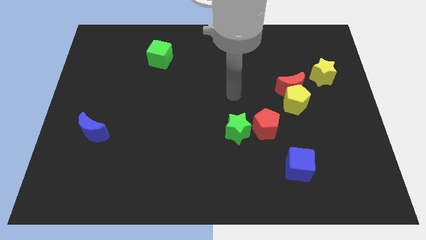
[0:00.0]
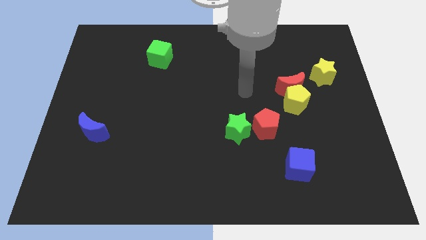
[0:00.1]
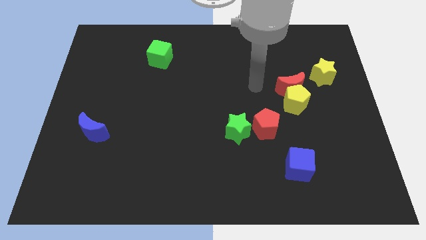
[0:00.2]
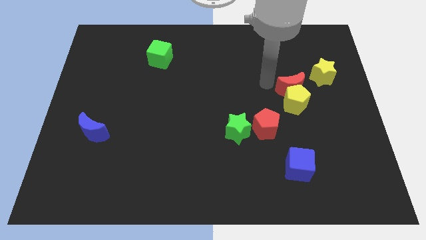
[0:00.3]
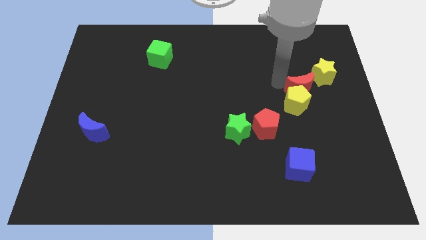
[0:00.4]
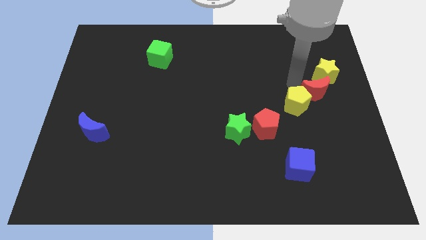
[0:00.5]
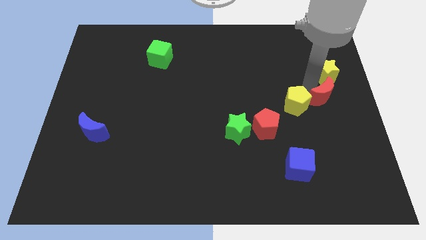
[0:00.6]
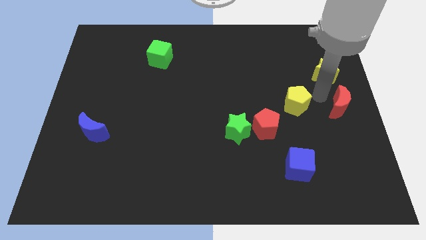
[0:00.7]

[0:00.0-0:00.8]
separate the yellow pentagon from the red moon

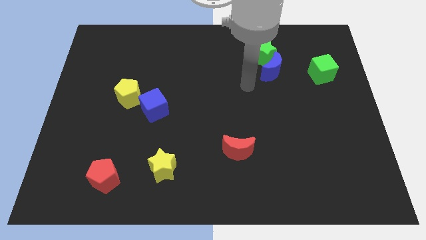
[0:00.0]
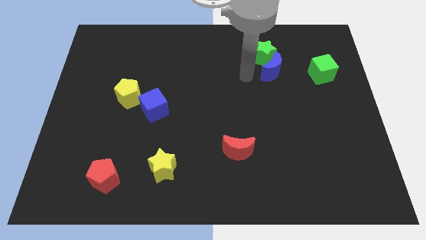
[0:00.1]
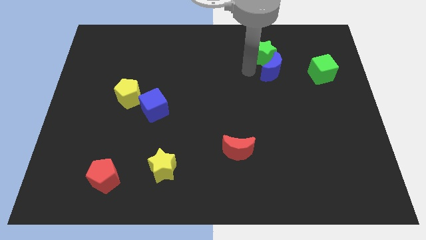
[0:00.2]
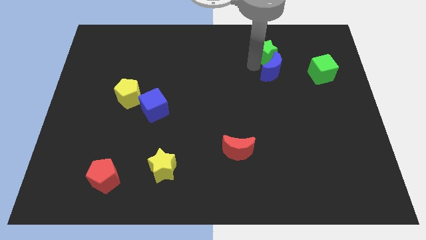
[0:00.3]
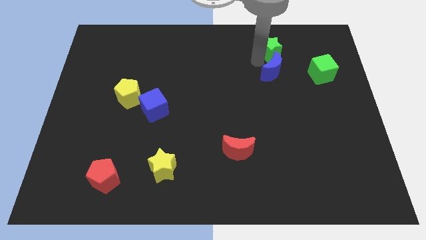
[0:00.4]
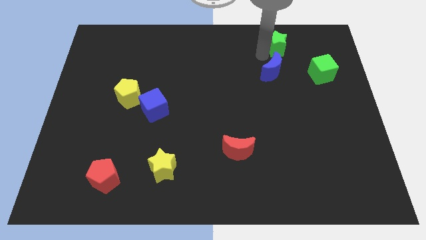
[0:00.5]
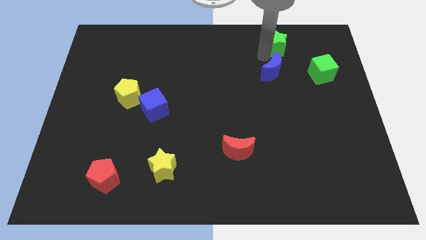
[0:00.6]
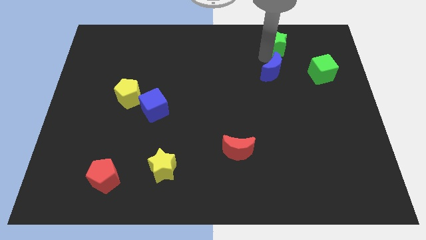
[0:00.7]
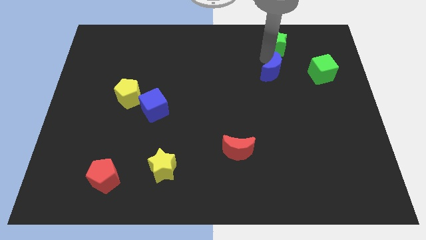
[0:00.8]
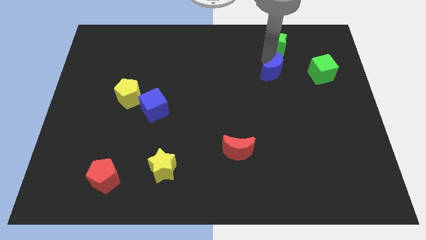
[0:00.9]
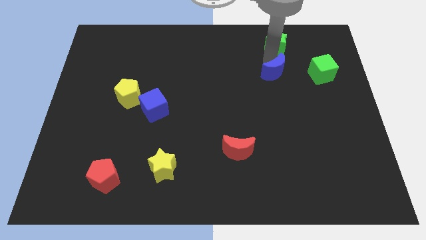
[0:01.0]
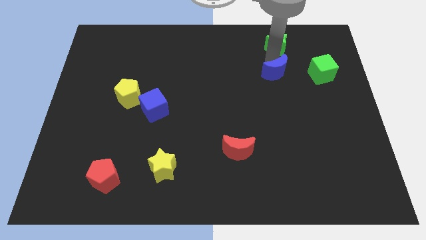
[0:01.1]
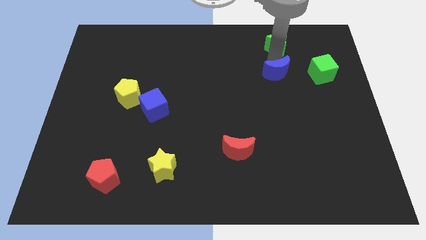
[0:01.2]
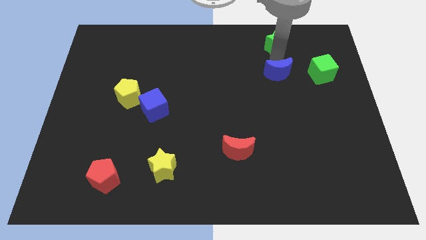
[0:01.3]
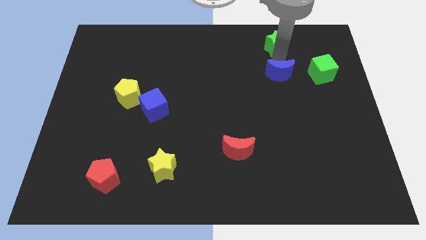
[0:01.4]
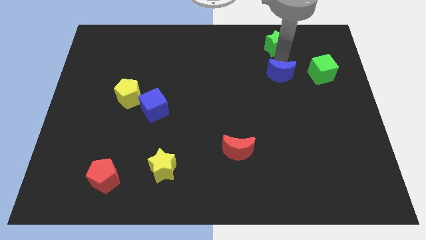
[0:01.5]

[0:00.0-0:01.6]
move the blue moon away from the green star

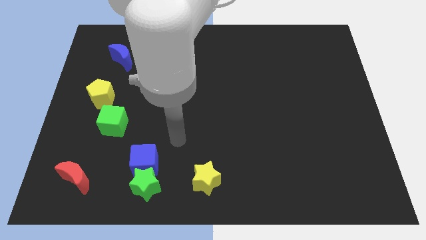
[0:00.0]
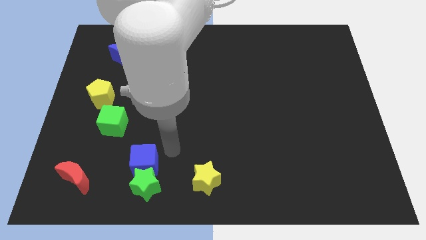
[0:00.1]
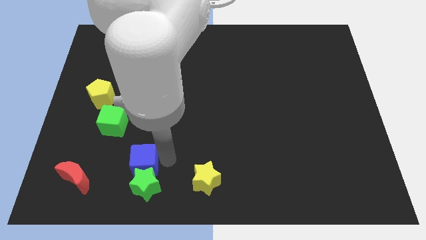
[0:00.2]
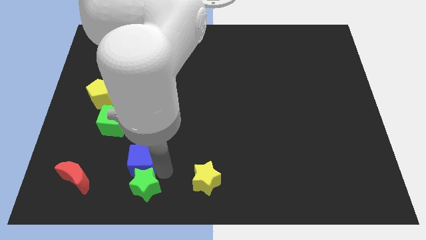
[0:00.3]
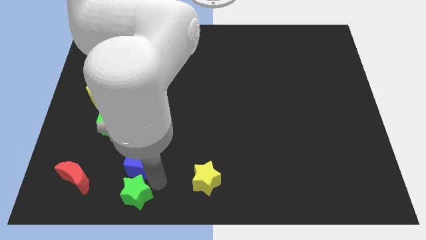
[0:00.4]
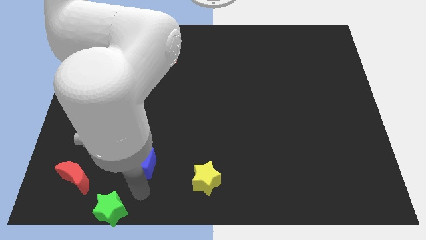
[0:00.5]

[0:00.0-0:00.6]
move the blue cube away from the green star

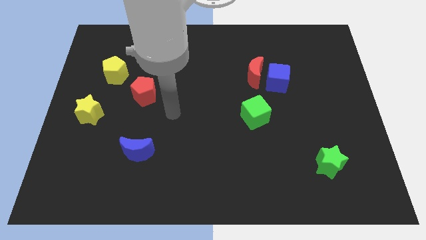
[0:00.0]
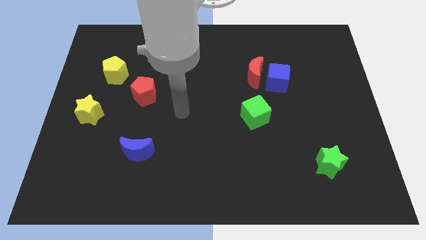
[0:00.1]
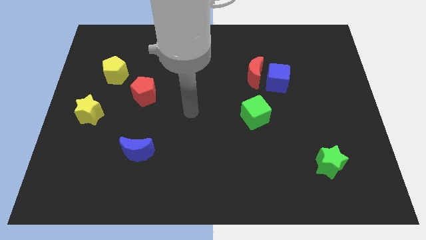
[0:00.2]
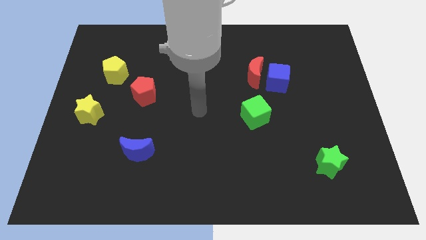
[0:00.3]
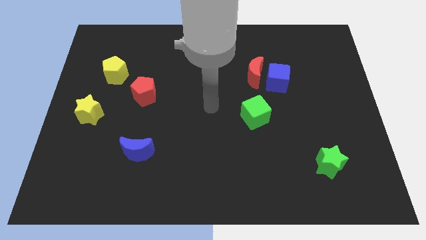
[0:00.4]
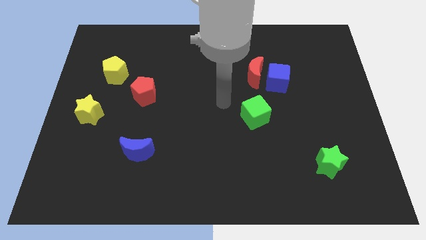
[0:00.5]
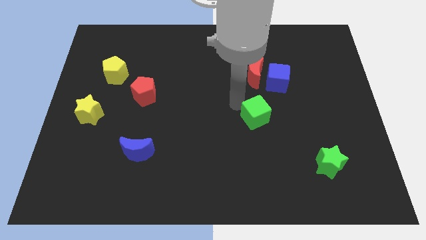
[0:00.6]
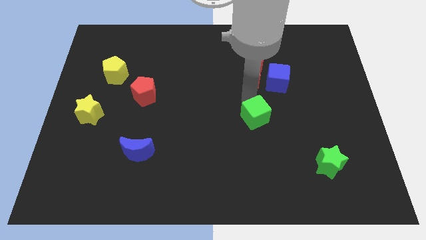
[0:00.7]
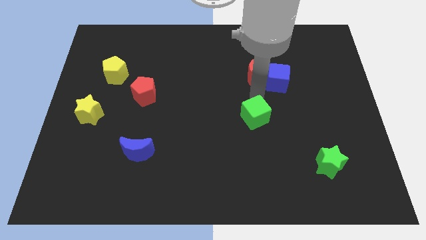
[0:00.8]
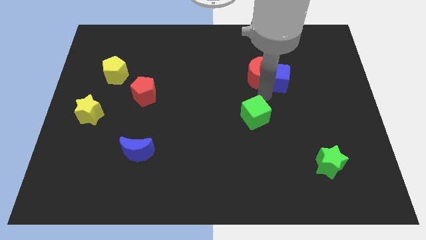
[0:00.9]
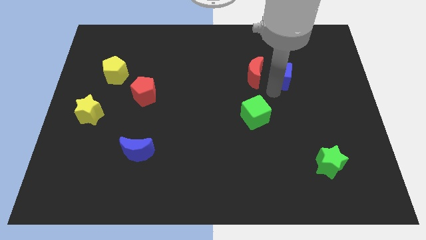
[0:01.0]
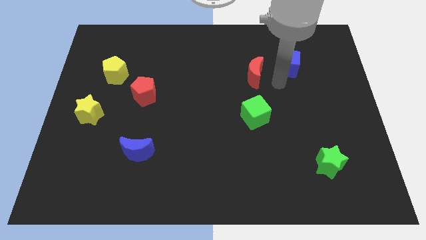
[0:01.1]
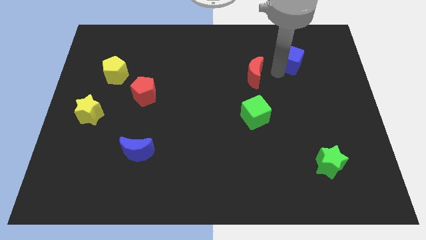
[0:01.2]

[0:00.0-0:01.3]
separate the red moon from the blue cube

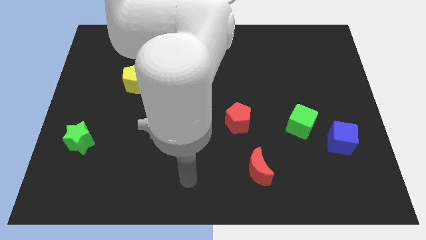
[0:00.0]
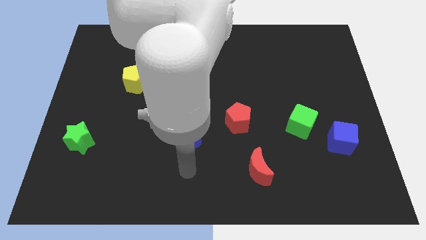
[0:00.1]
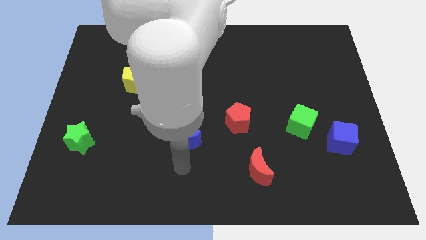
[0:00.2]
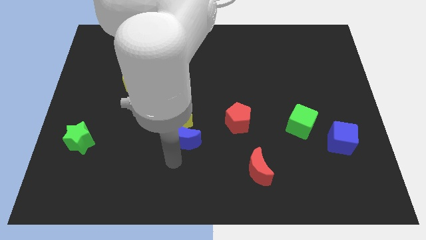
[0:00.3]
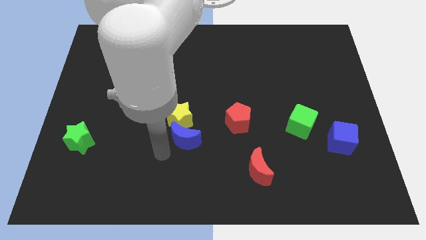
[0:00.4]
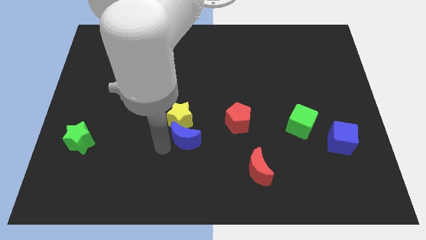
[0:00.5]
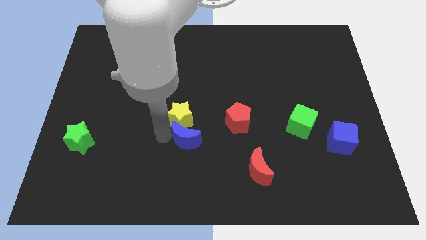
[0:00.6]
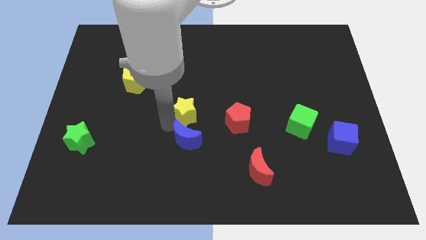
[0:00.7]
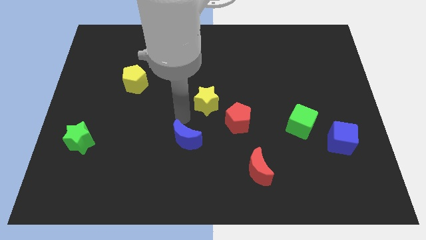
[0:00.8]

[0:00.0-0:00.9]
separate the blue moon from the yellow star

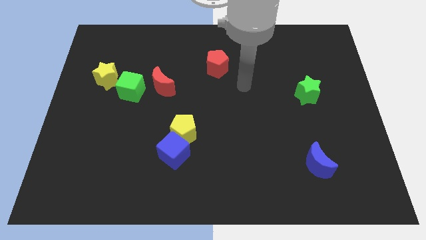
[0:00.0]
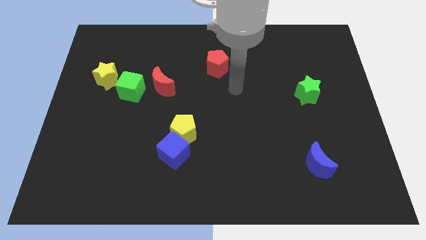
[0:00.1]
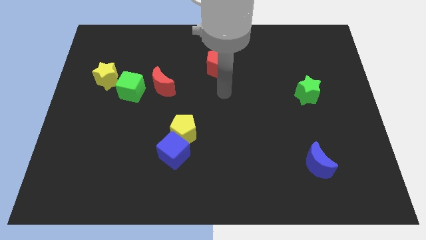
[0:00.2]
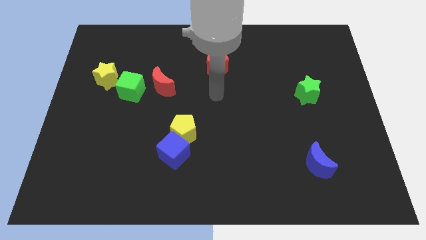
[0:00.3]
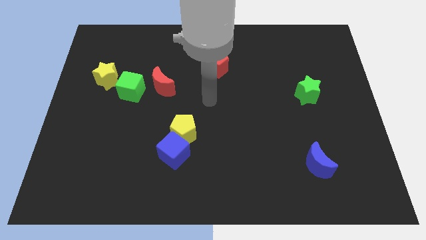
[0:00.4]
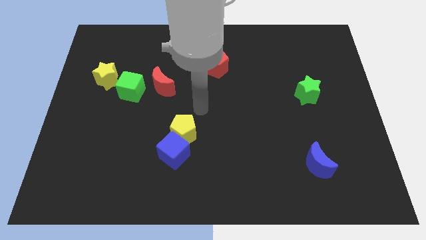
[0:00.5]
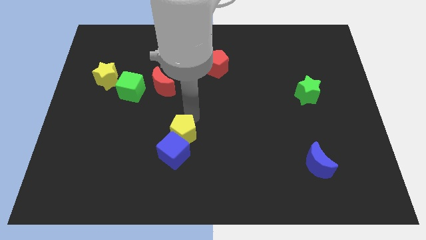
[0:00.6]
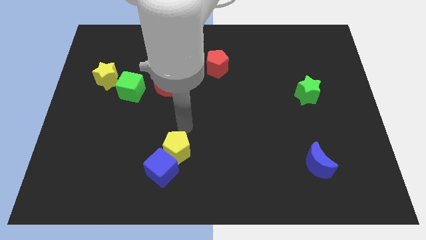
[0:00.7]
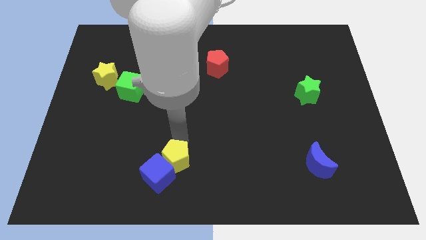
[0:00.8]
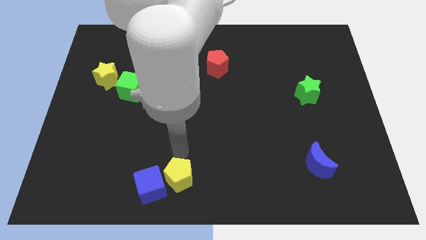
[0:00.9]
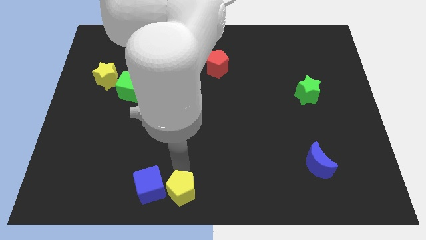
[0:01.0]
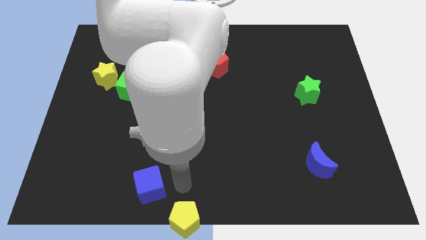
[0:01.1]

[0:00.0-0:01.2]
move the blue cube away from the yellow pentagon

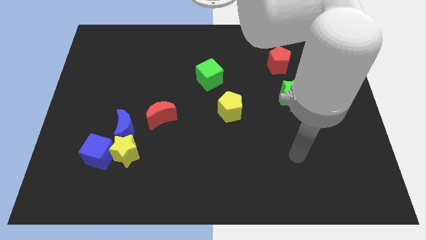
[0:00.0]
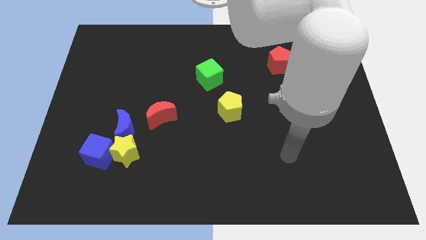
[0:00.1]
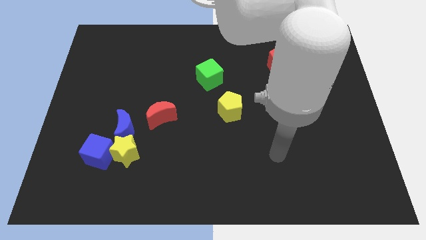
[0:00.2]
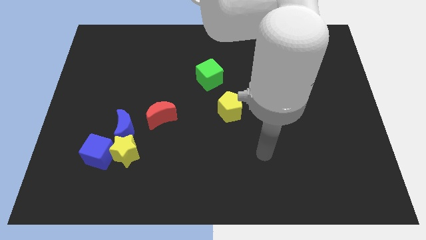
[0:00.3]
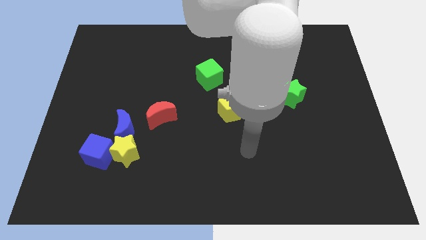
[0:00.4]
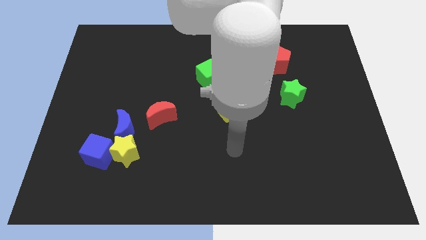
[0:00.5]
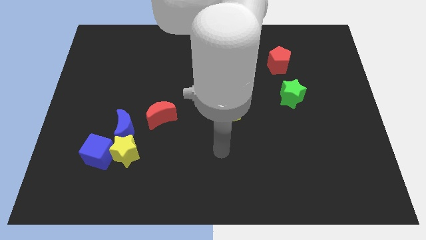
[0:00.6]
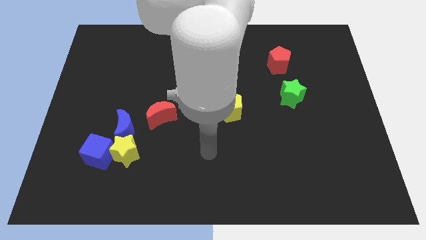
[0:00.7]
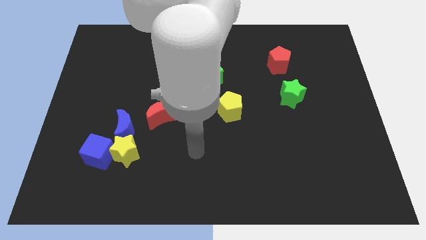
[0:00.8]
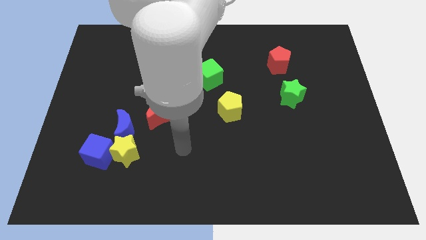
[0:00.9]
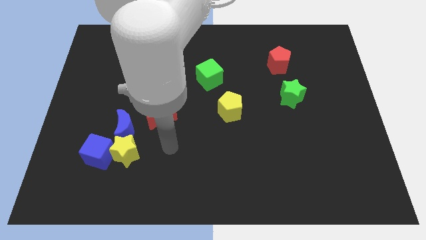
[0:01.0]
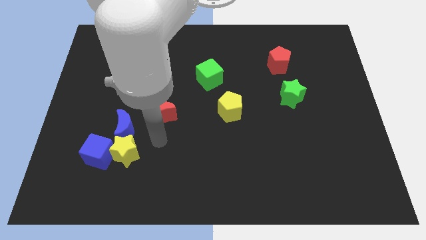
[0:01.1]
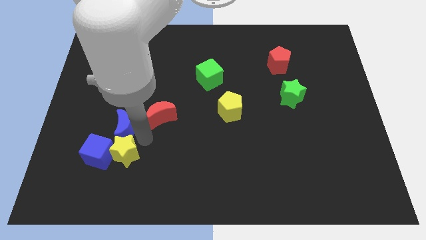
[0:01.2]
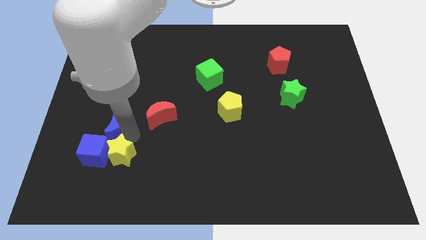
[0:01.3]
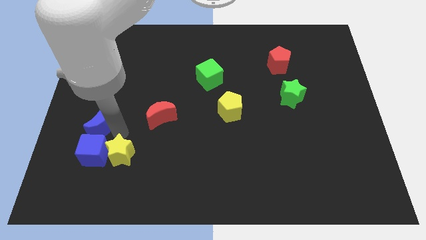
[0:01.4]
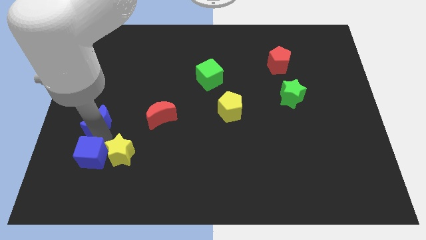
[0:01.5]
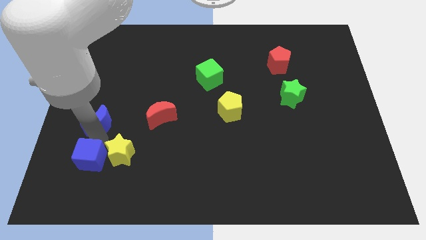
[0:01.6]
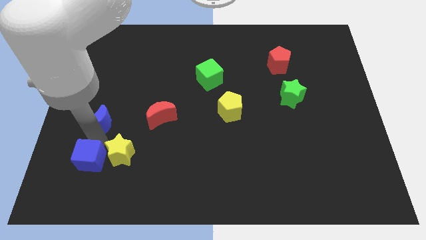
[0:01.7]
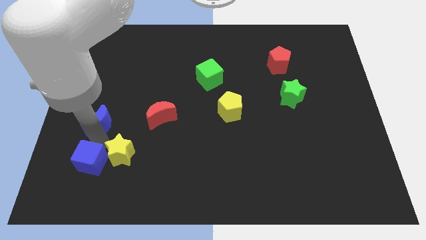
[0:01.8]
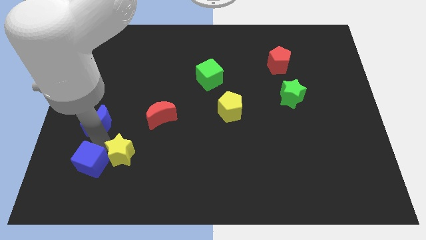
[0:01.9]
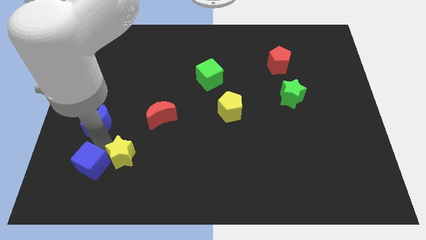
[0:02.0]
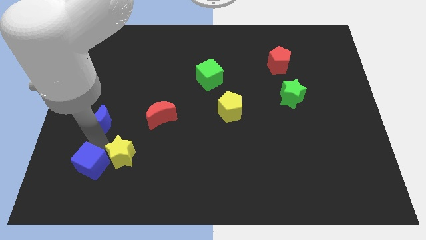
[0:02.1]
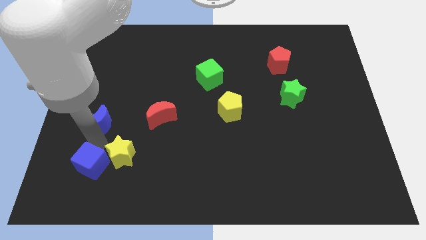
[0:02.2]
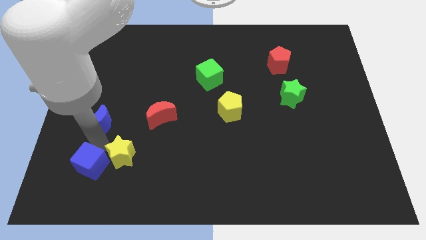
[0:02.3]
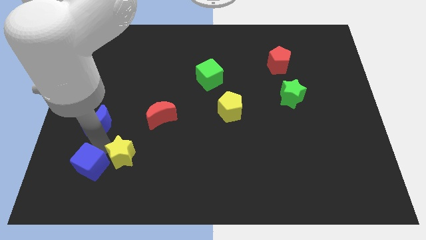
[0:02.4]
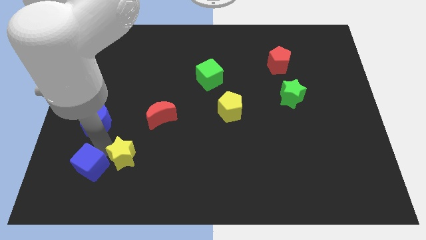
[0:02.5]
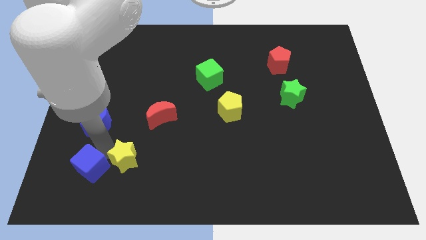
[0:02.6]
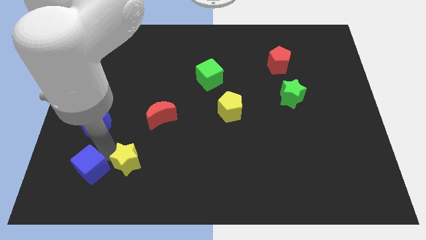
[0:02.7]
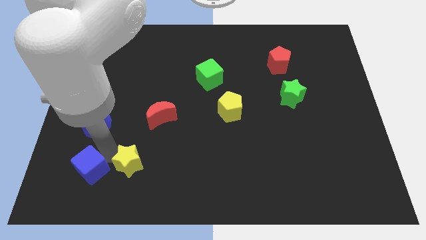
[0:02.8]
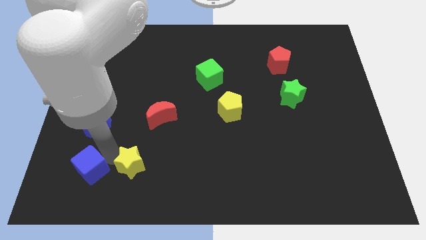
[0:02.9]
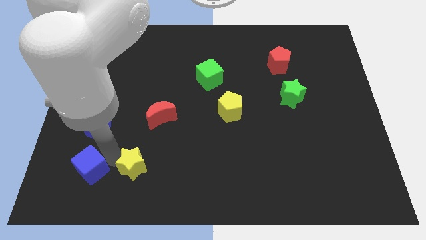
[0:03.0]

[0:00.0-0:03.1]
separate the yellow star from the blue cube and blue moon
